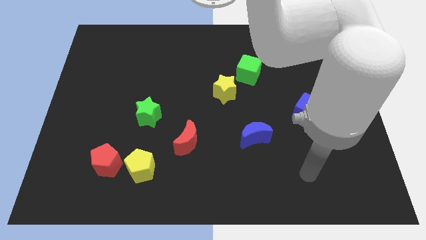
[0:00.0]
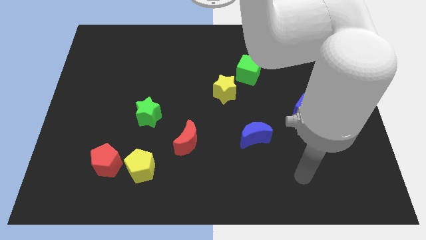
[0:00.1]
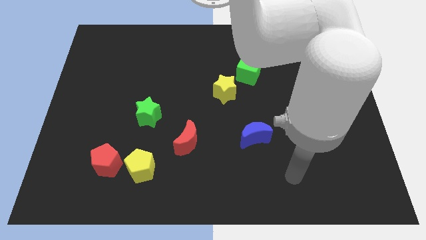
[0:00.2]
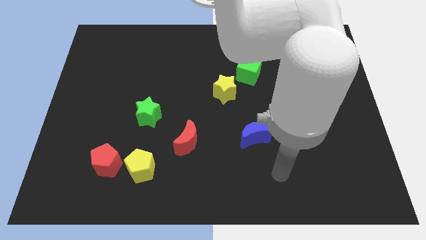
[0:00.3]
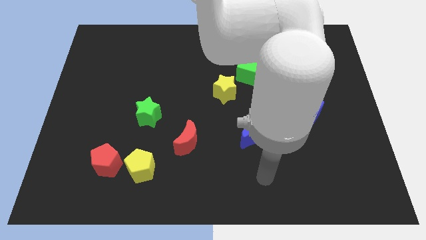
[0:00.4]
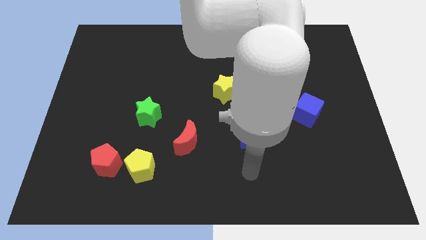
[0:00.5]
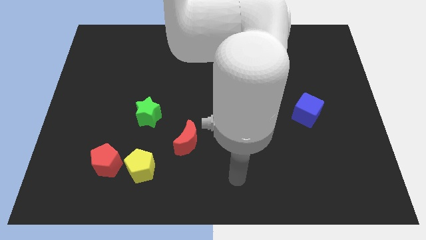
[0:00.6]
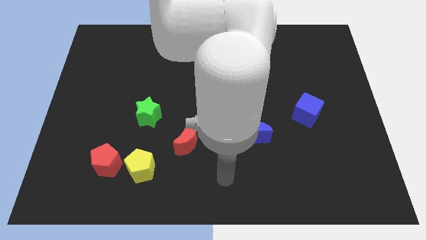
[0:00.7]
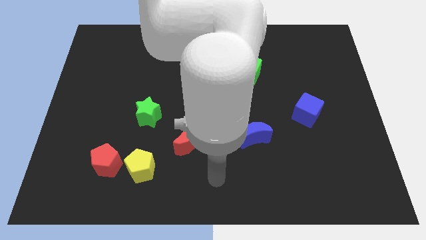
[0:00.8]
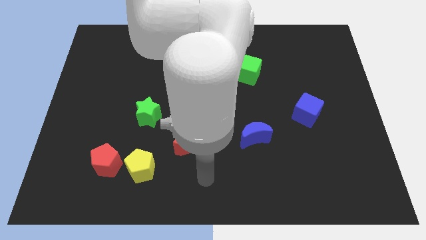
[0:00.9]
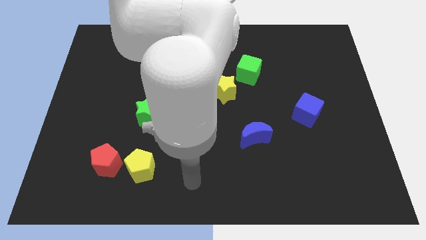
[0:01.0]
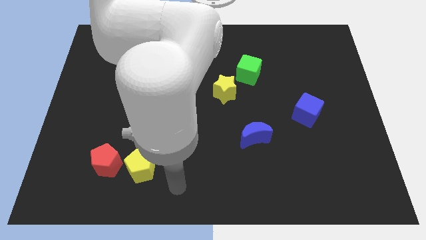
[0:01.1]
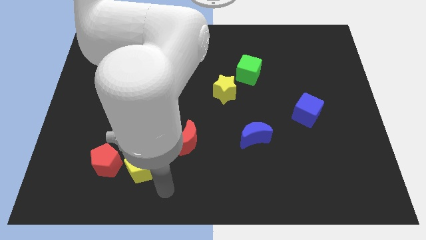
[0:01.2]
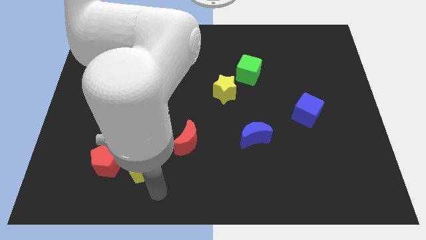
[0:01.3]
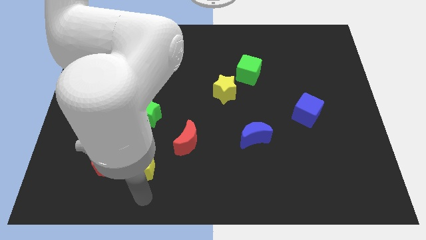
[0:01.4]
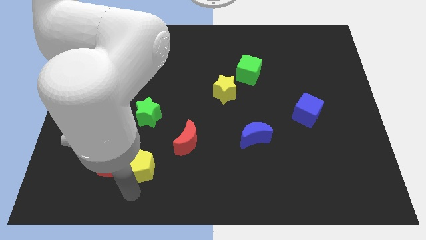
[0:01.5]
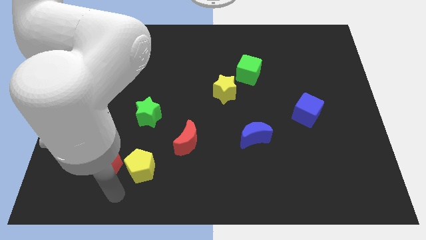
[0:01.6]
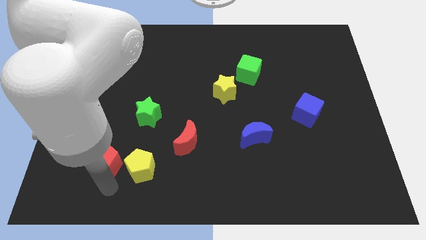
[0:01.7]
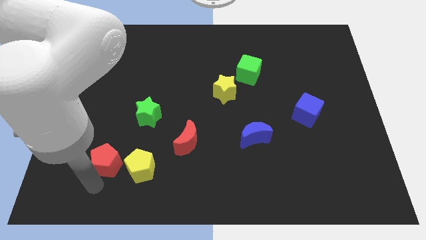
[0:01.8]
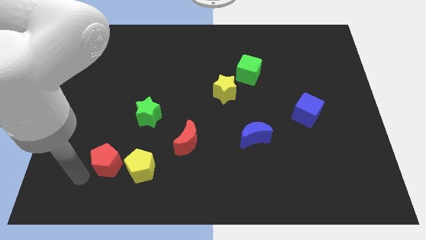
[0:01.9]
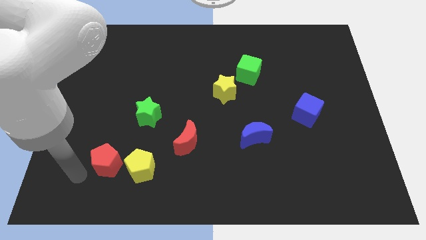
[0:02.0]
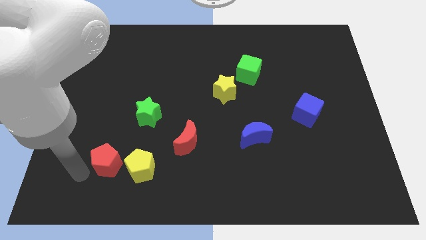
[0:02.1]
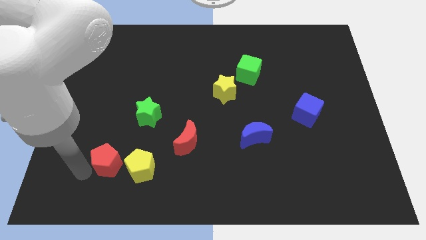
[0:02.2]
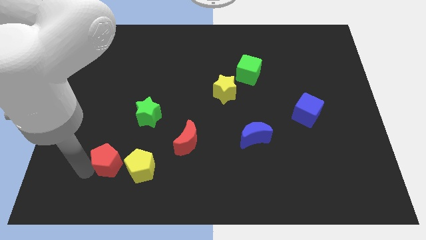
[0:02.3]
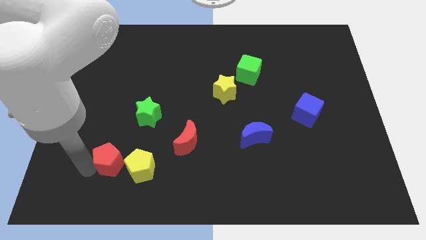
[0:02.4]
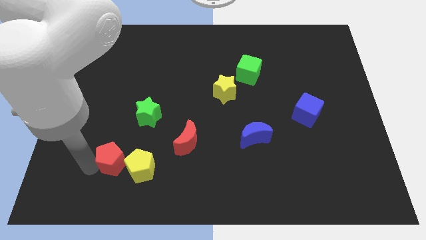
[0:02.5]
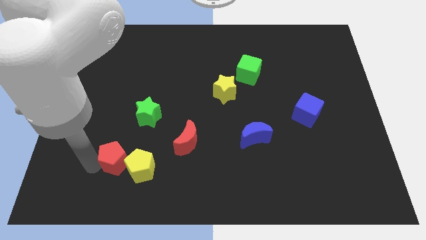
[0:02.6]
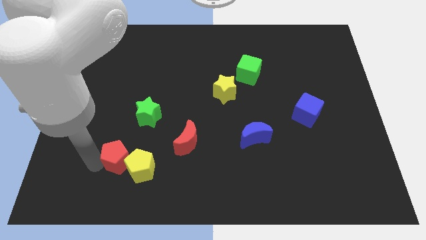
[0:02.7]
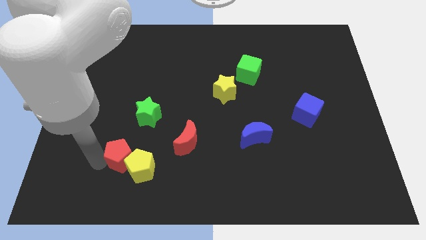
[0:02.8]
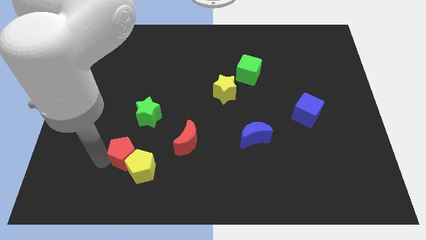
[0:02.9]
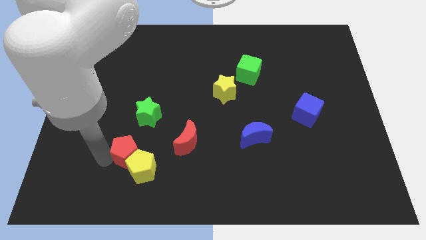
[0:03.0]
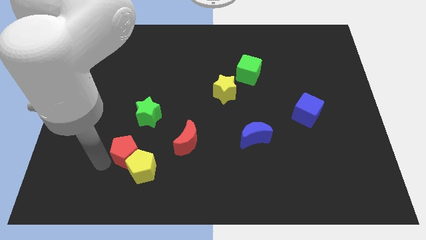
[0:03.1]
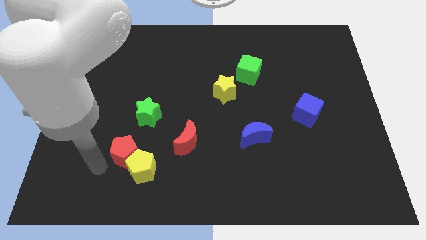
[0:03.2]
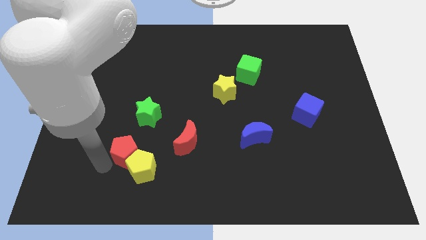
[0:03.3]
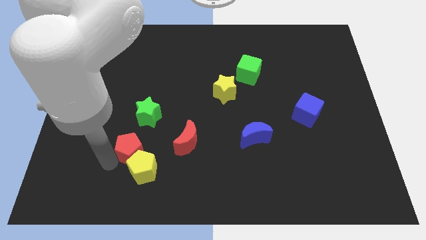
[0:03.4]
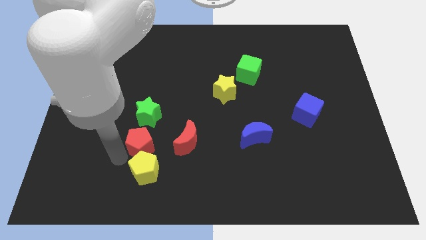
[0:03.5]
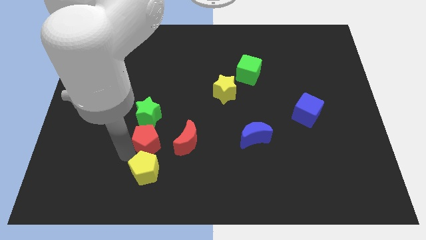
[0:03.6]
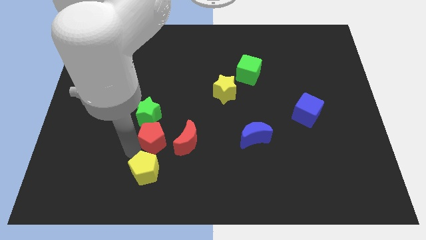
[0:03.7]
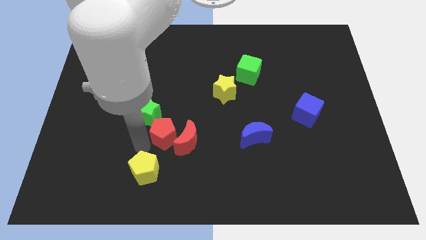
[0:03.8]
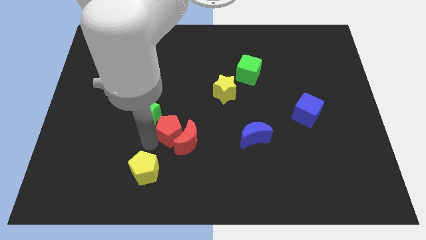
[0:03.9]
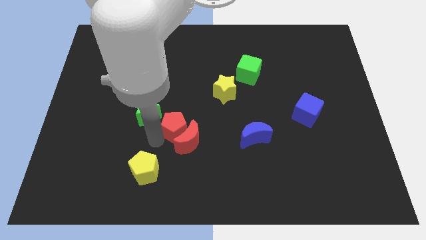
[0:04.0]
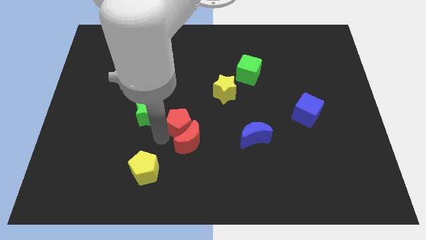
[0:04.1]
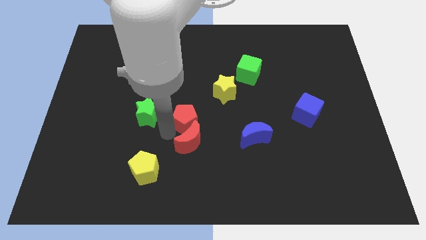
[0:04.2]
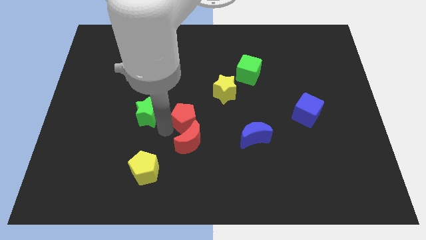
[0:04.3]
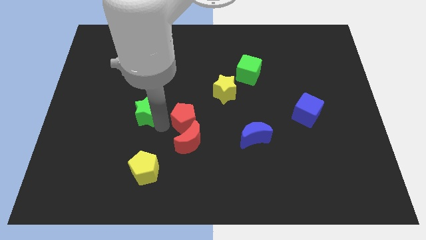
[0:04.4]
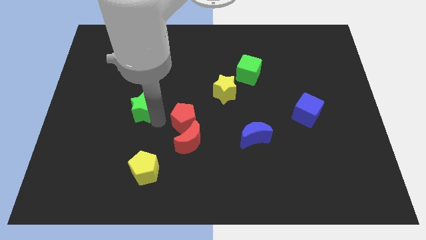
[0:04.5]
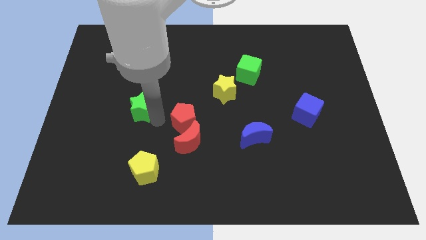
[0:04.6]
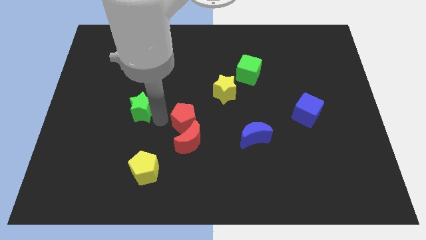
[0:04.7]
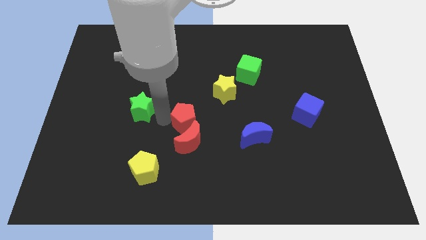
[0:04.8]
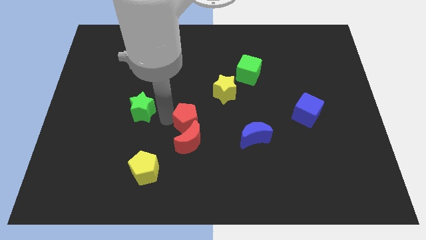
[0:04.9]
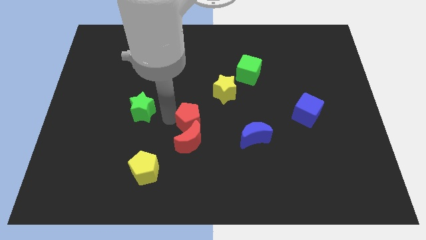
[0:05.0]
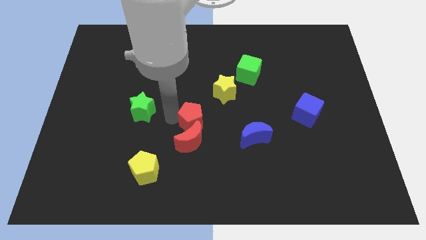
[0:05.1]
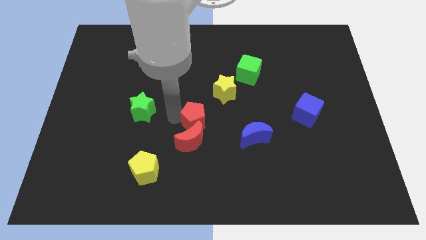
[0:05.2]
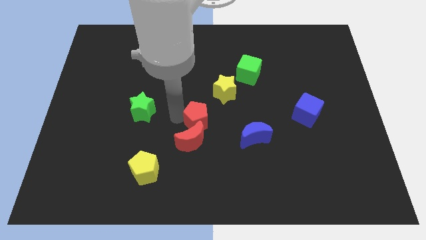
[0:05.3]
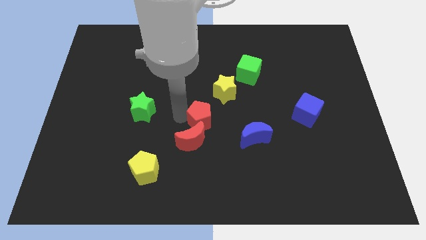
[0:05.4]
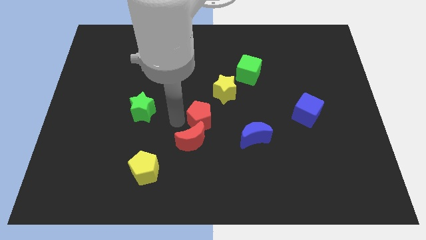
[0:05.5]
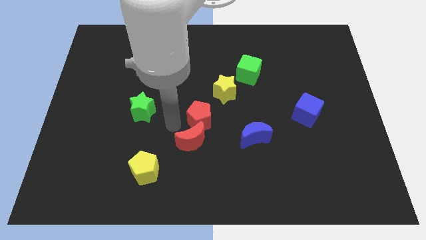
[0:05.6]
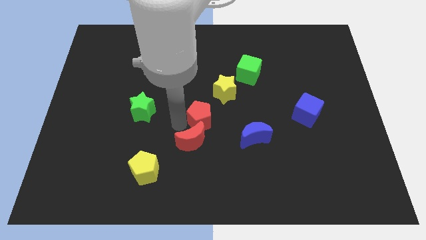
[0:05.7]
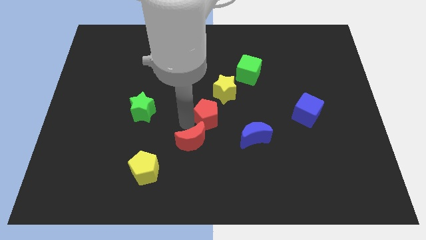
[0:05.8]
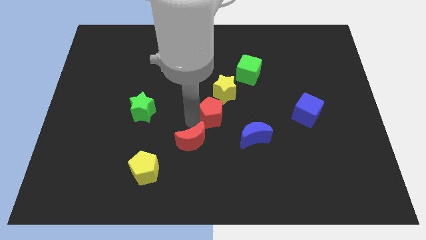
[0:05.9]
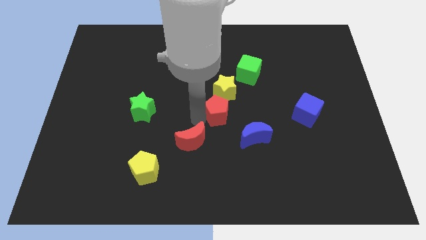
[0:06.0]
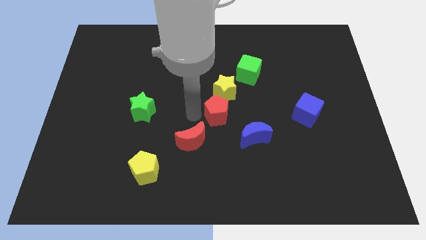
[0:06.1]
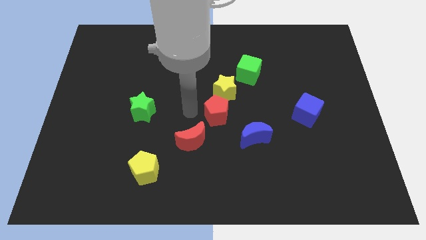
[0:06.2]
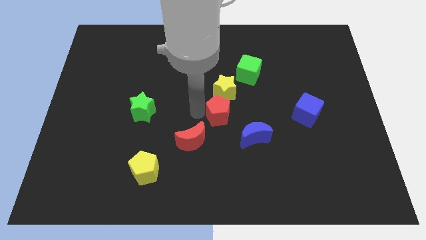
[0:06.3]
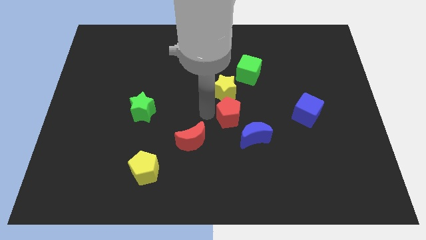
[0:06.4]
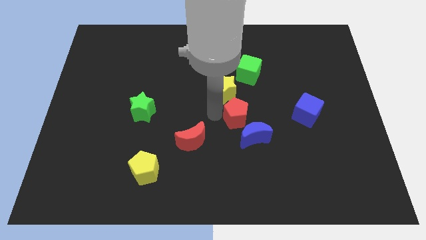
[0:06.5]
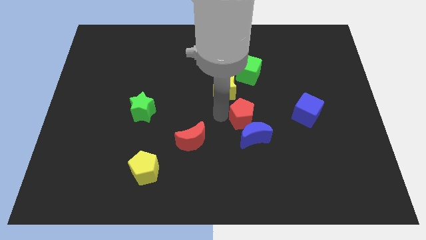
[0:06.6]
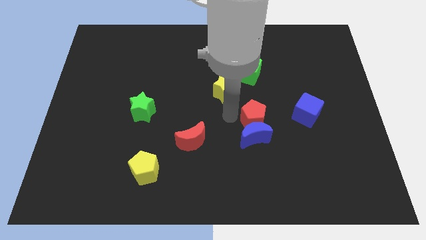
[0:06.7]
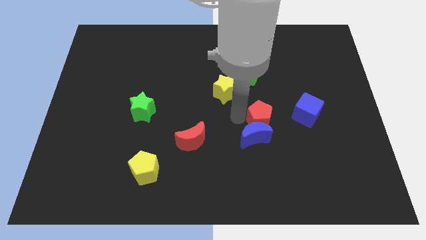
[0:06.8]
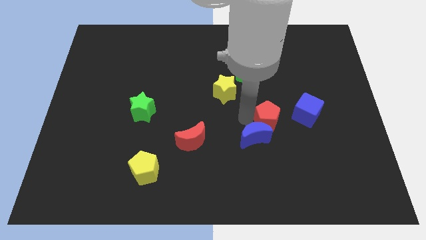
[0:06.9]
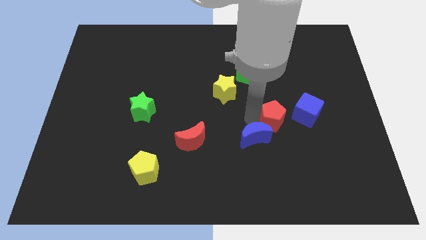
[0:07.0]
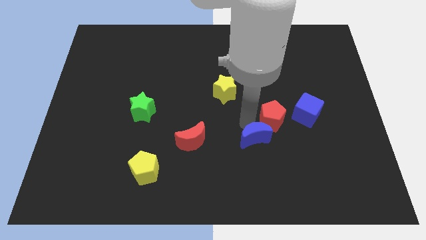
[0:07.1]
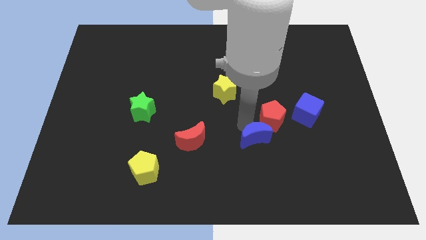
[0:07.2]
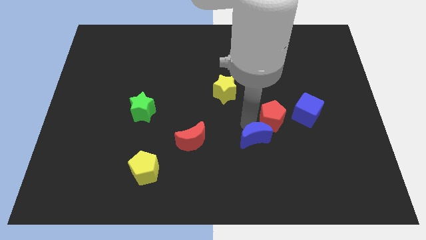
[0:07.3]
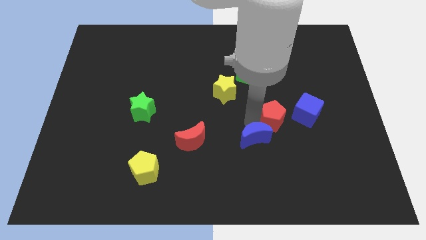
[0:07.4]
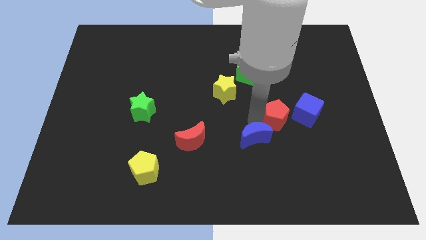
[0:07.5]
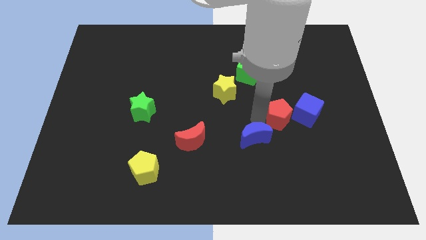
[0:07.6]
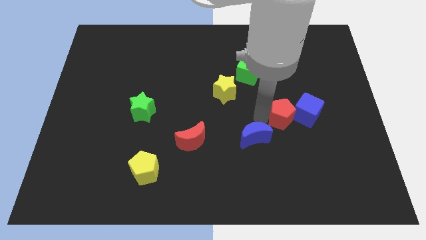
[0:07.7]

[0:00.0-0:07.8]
put the red pentagon towards the blue cube
